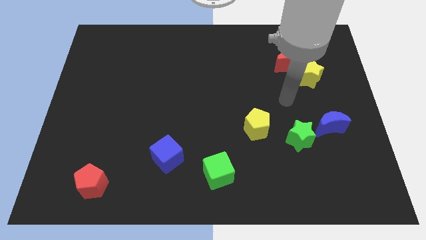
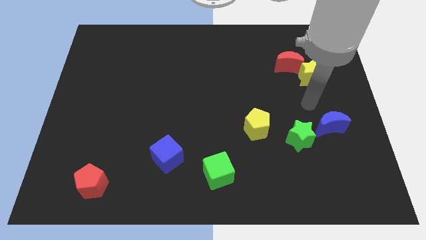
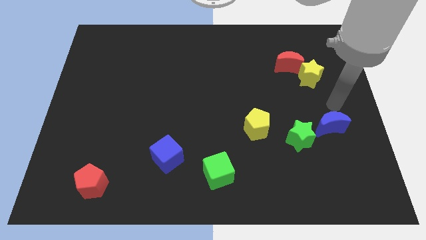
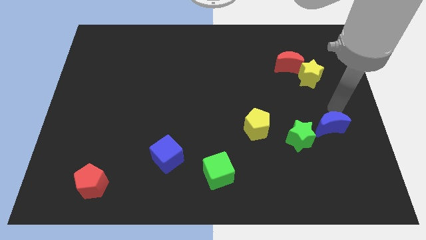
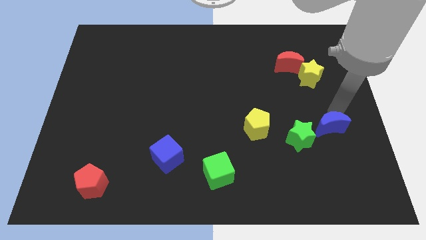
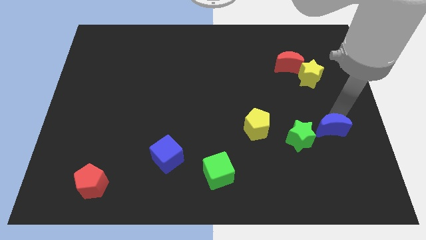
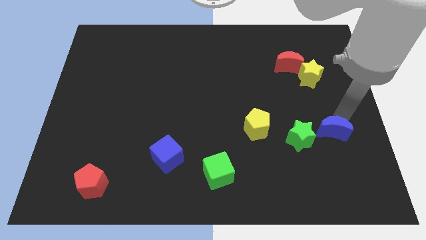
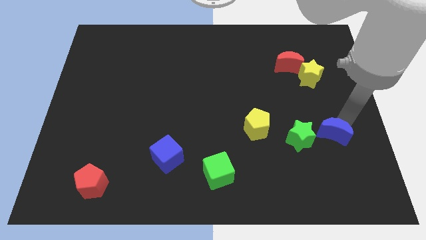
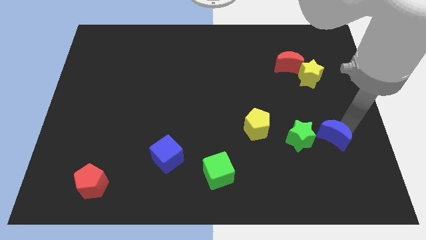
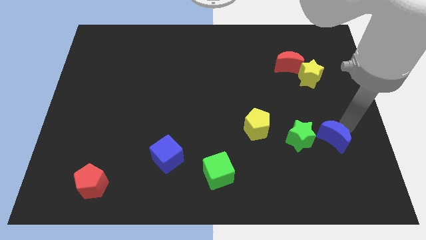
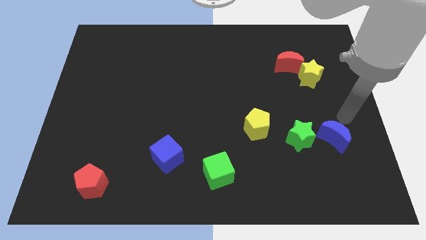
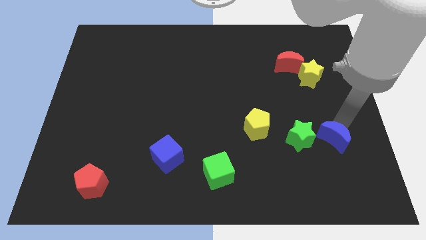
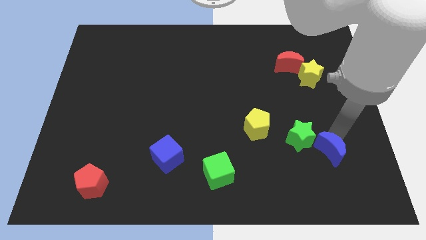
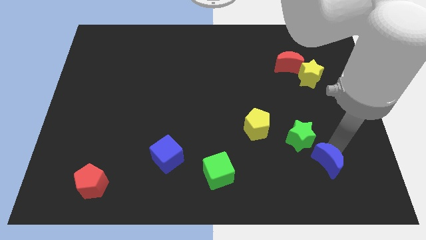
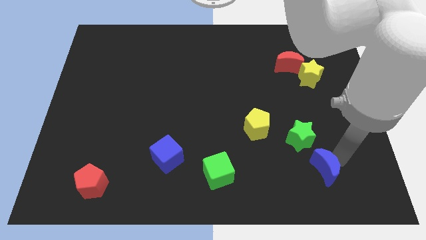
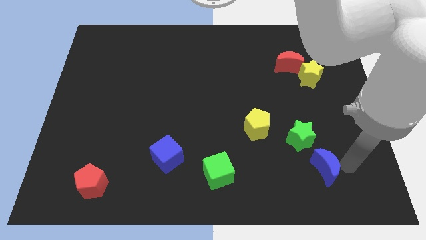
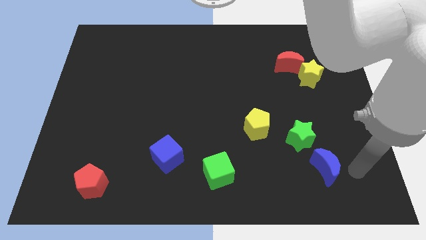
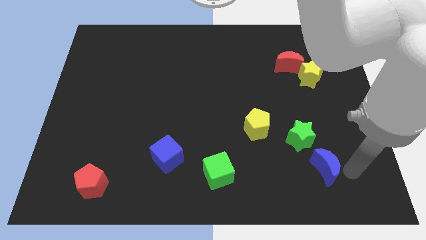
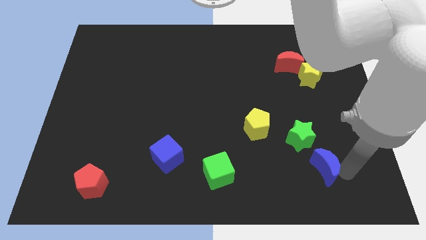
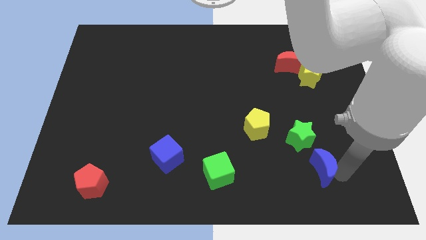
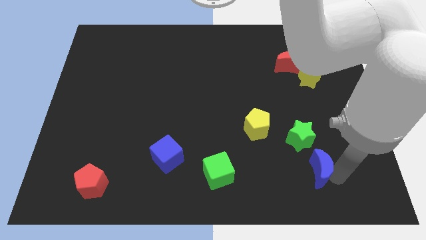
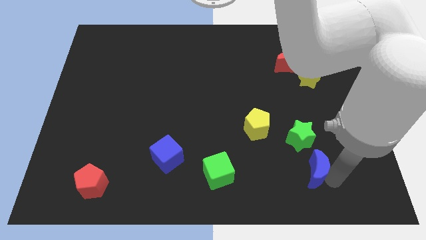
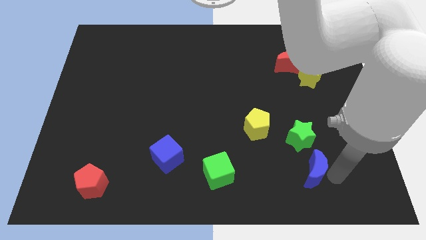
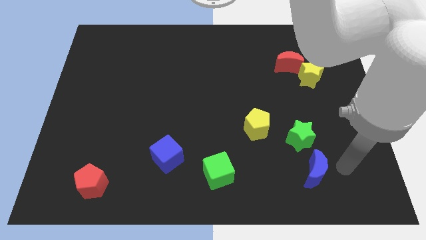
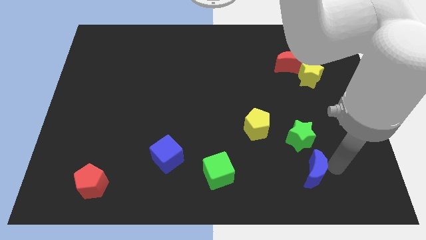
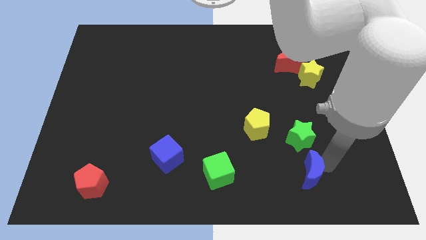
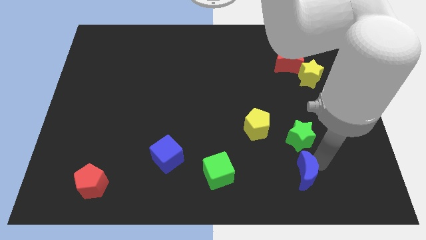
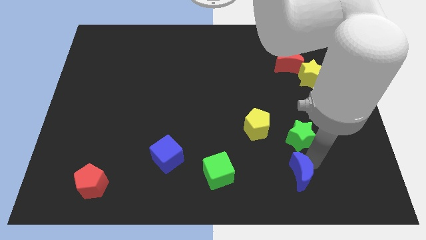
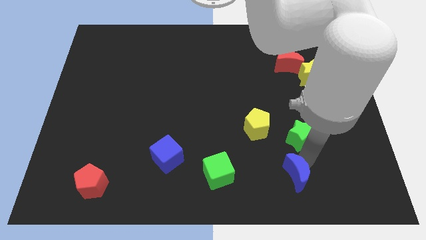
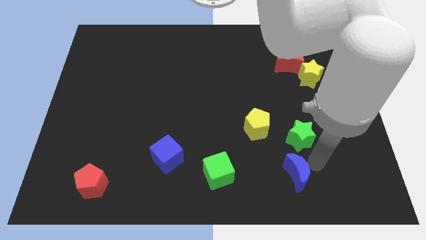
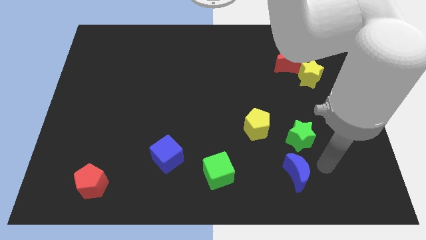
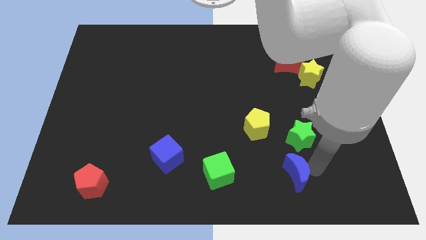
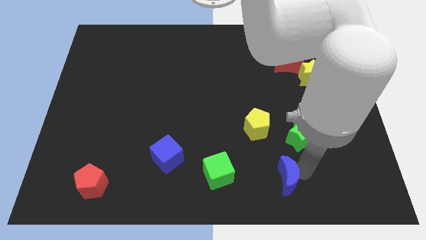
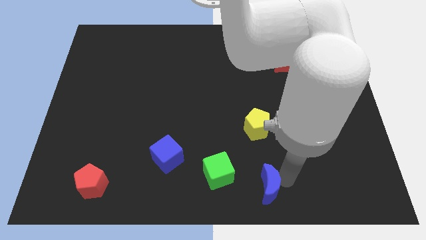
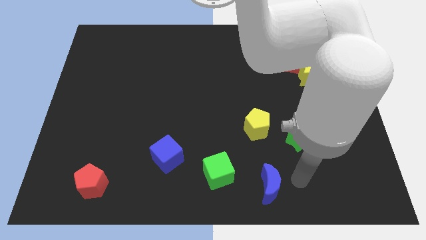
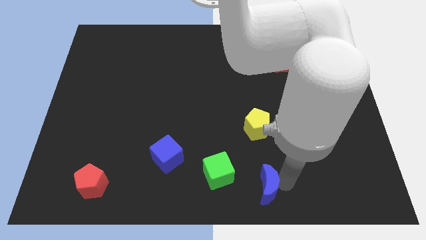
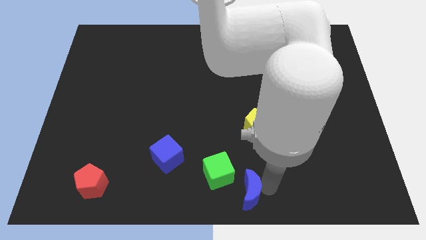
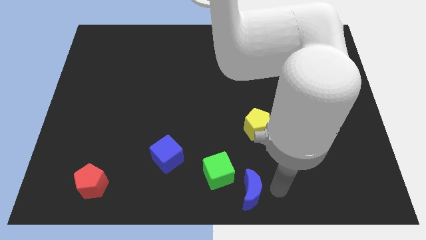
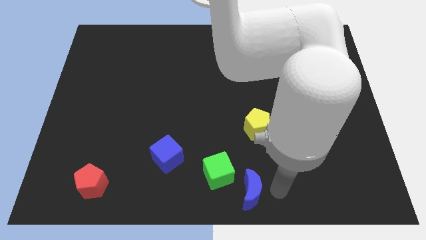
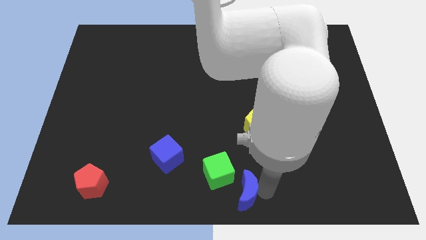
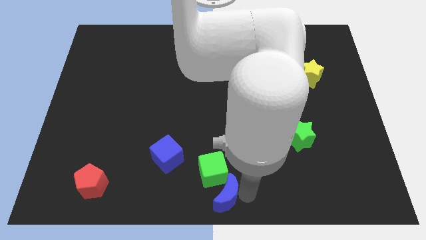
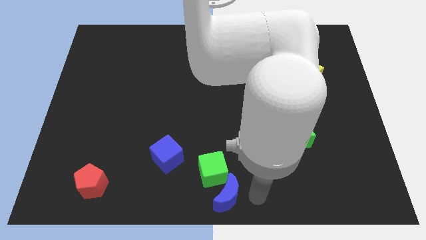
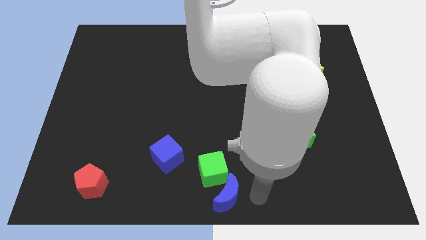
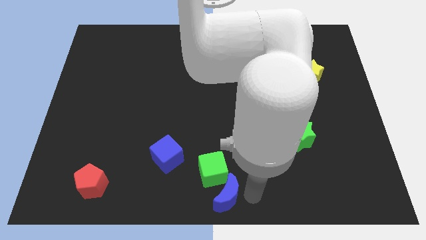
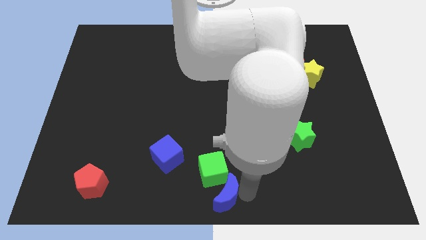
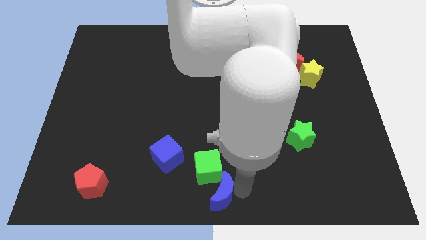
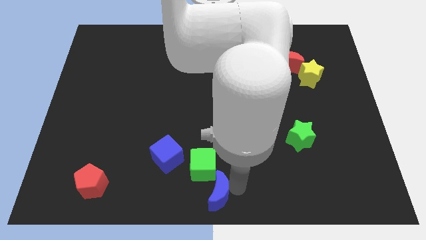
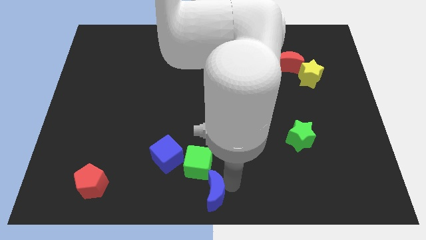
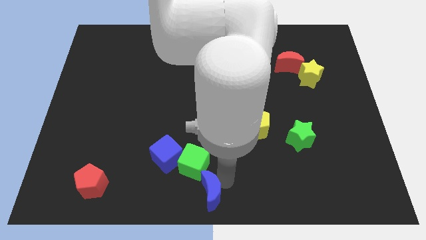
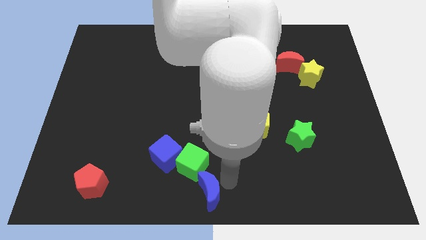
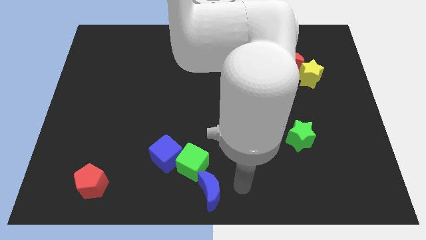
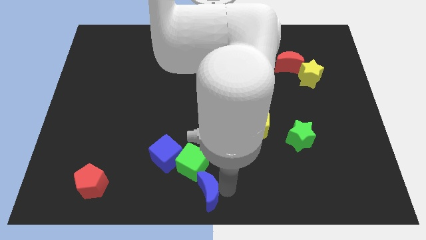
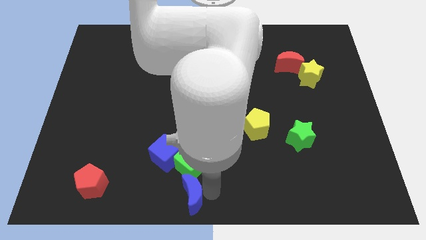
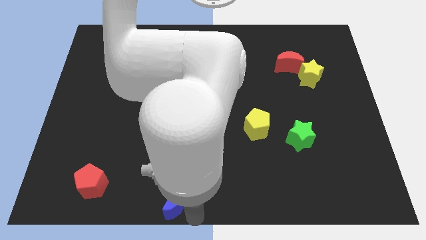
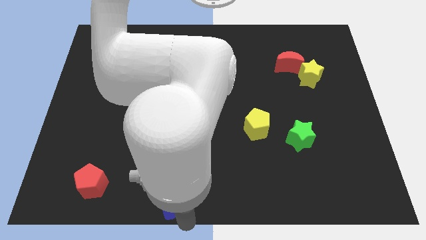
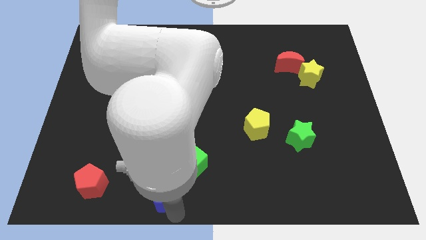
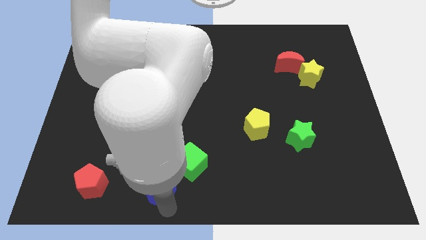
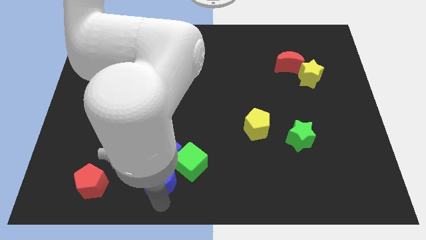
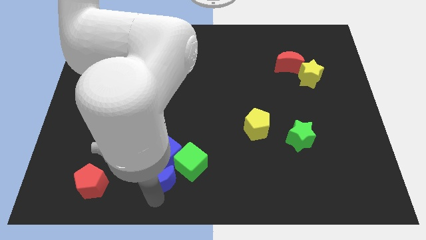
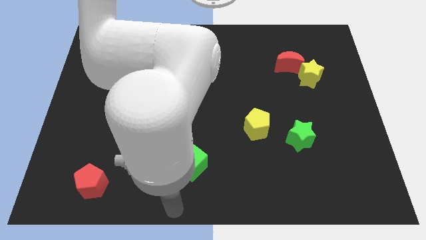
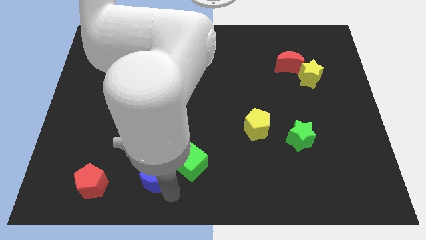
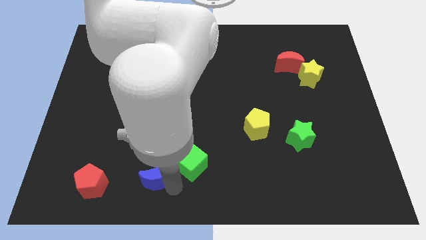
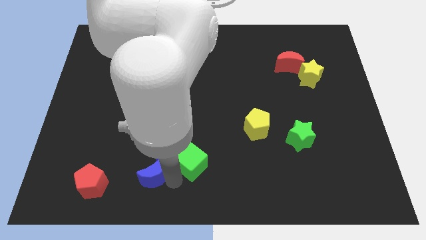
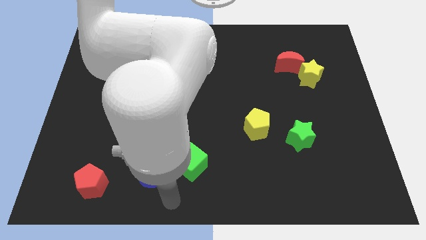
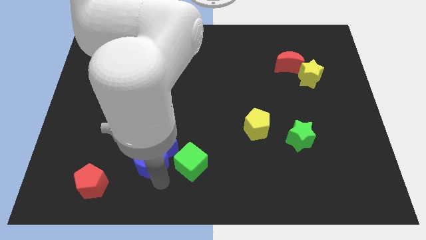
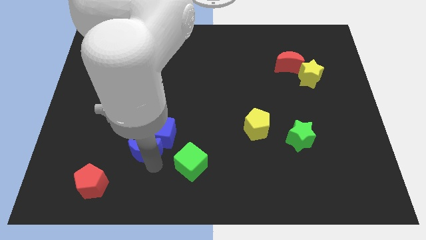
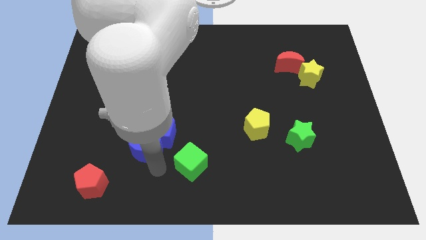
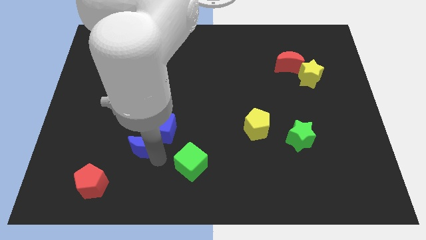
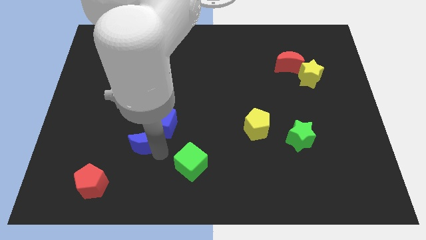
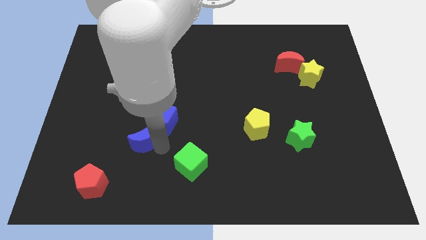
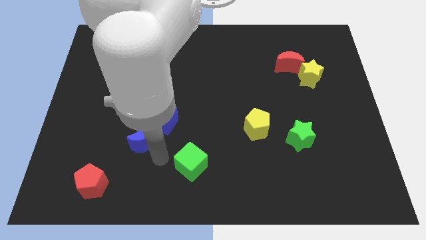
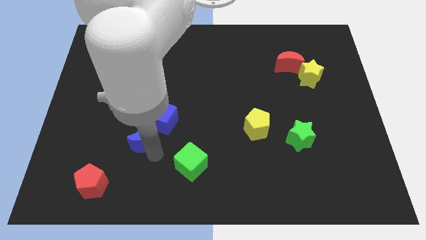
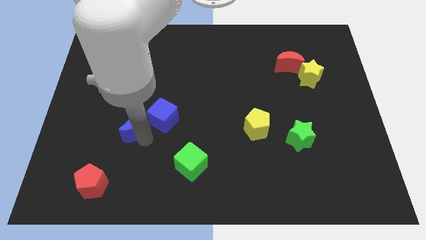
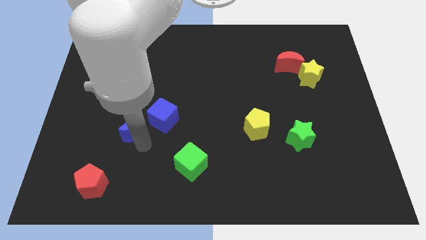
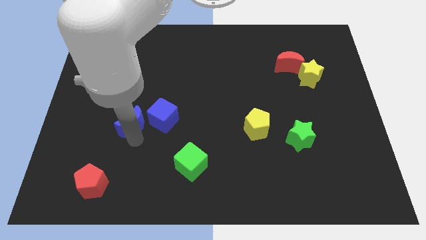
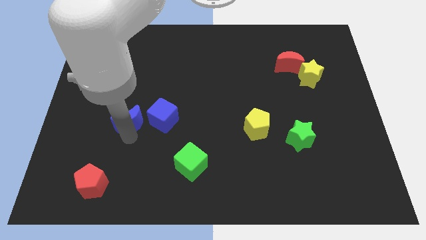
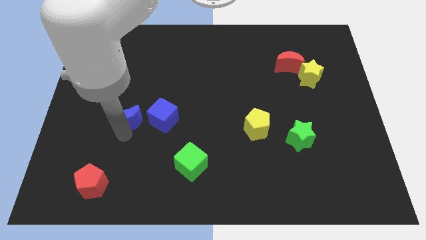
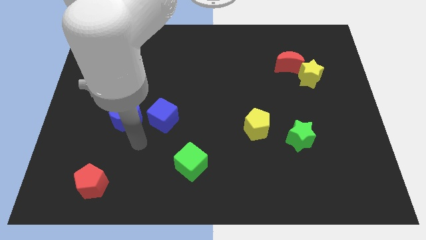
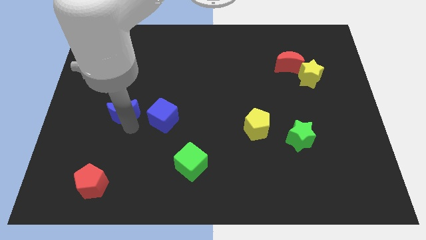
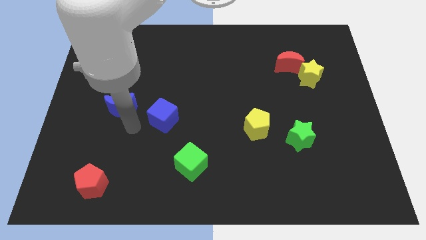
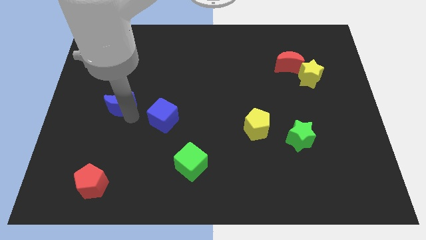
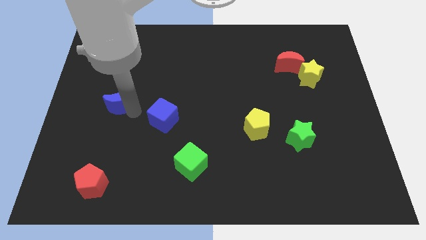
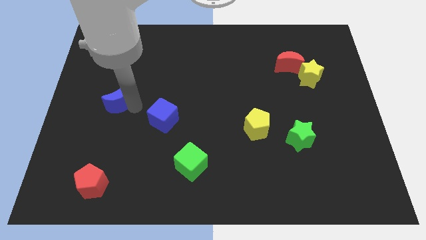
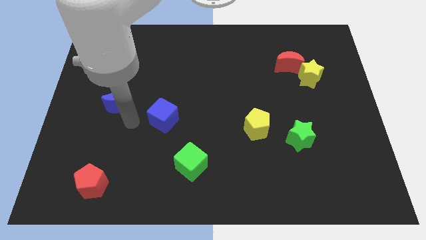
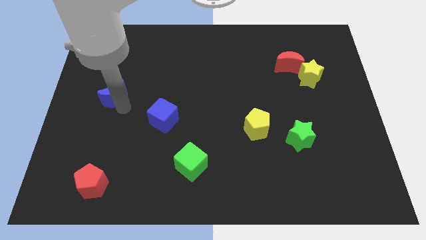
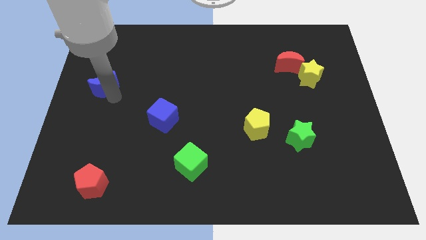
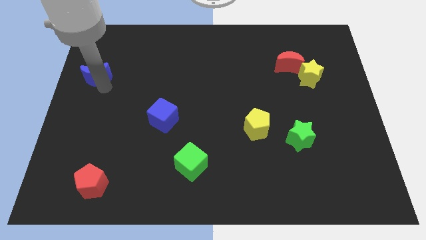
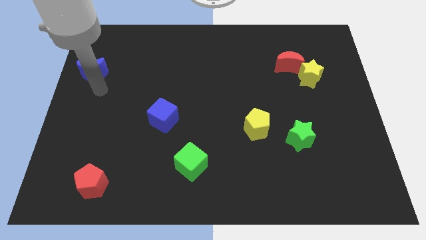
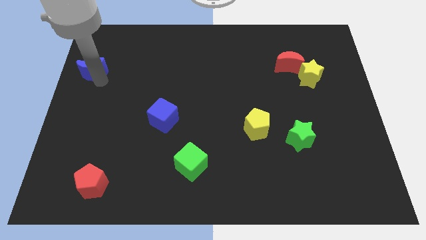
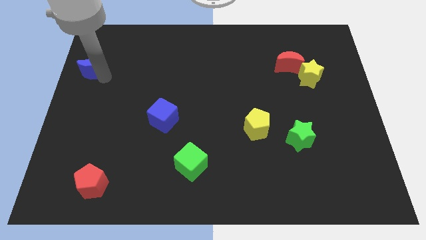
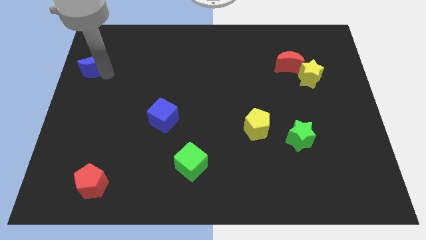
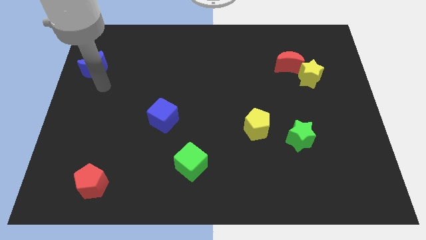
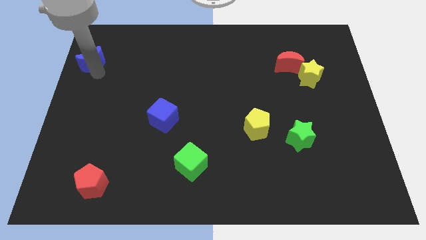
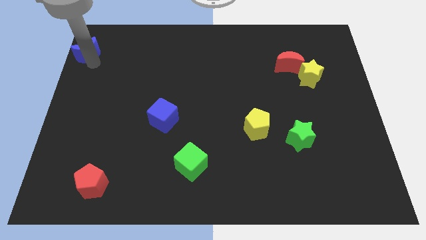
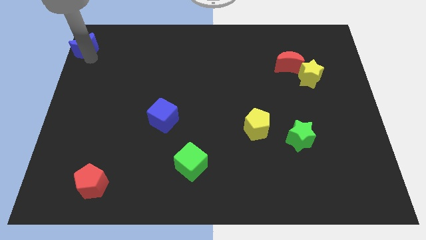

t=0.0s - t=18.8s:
move the blue moon to the upper left corner
